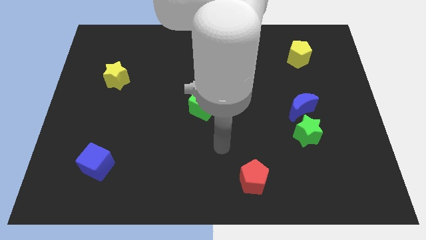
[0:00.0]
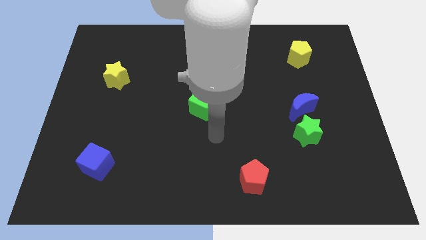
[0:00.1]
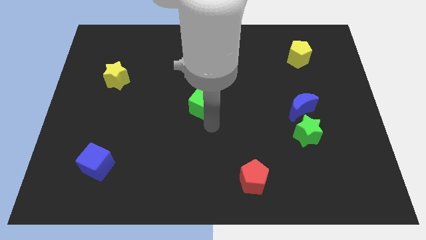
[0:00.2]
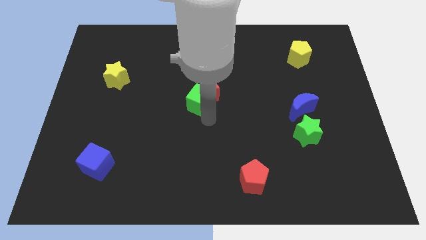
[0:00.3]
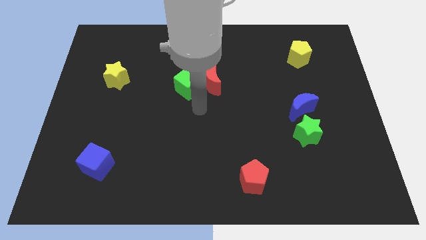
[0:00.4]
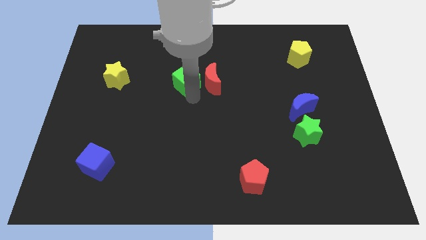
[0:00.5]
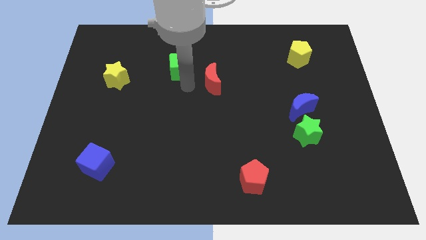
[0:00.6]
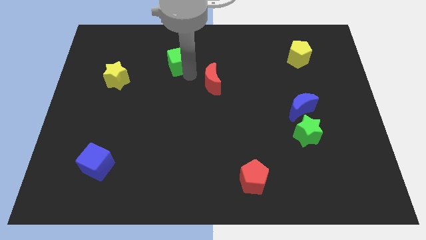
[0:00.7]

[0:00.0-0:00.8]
separate the red moon from the green cube

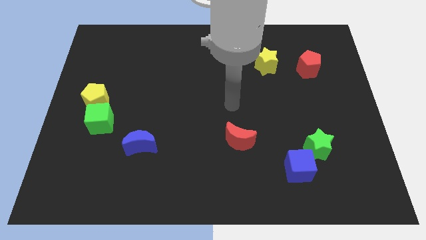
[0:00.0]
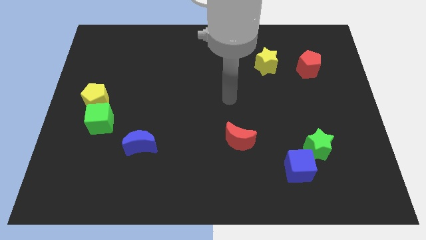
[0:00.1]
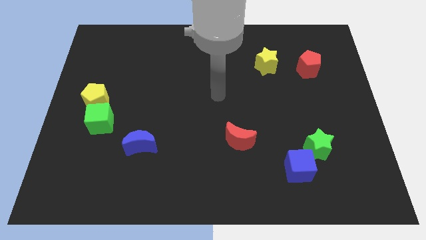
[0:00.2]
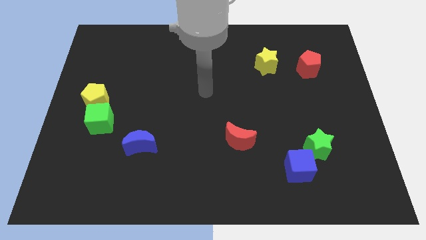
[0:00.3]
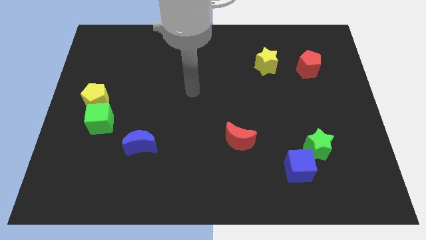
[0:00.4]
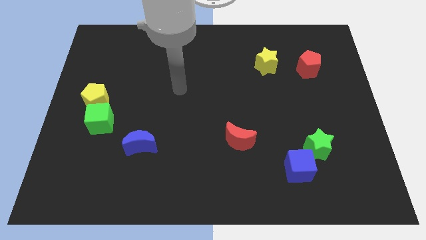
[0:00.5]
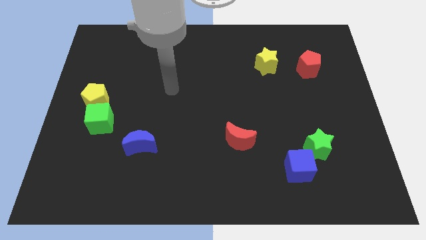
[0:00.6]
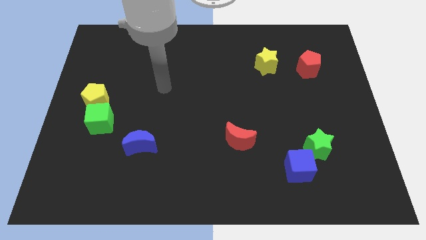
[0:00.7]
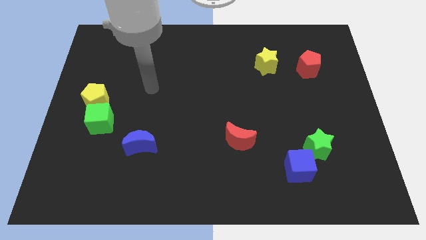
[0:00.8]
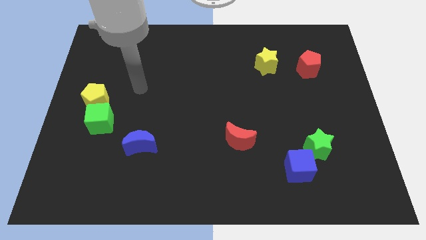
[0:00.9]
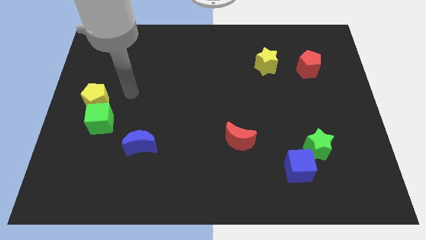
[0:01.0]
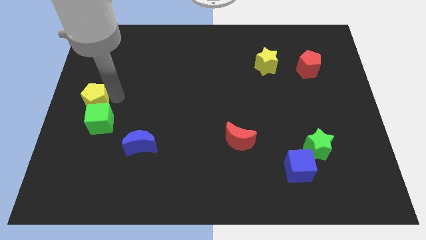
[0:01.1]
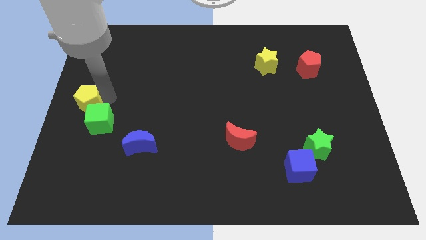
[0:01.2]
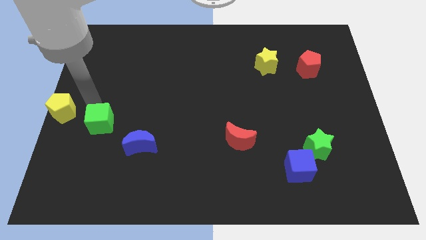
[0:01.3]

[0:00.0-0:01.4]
move the green cube away from the yellow pentagon

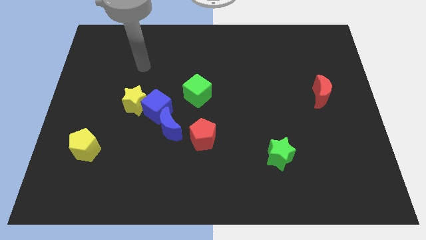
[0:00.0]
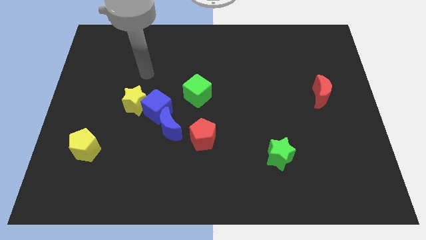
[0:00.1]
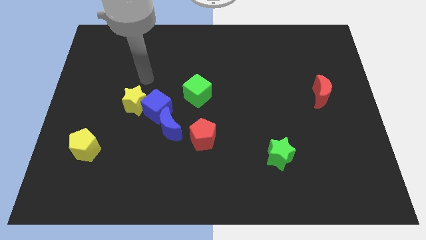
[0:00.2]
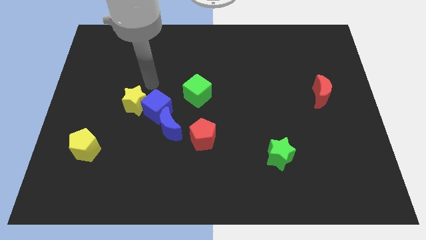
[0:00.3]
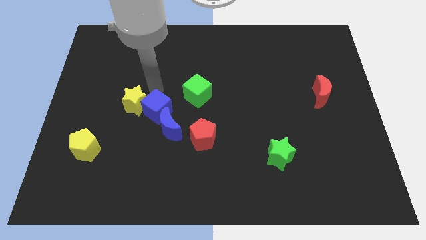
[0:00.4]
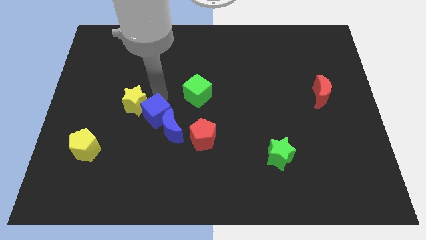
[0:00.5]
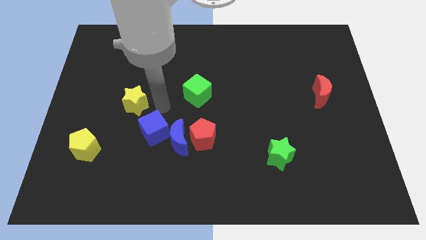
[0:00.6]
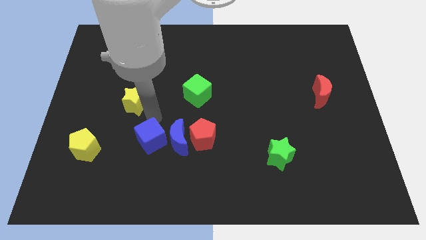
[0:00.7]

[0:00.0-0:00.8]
move the yellow star away from the blue cube

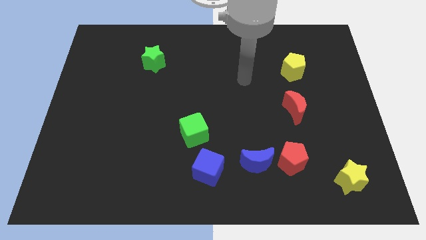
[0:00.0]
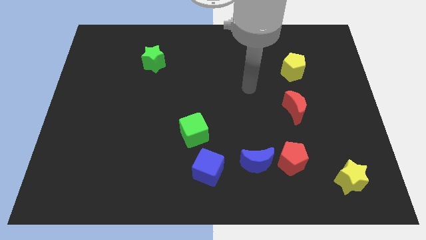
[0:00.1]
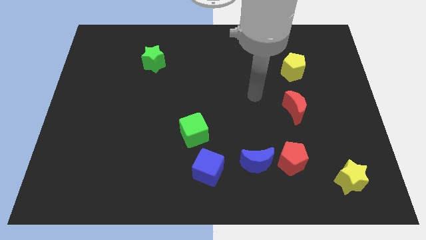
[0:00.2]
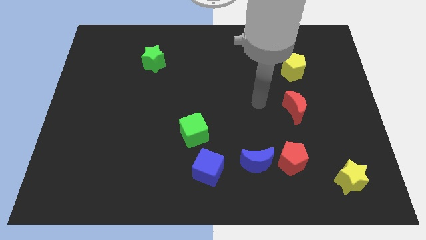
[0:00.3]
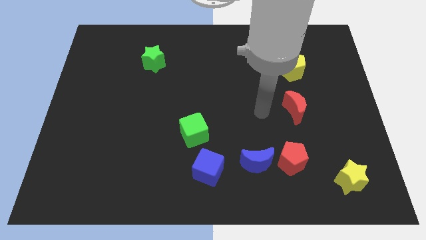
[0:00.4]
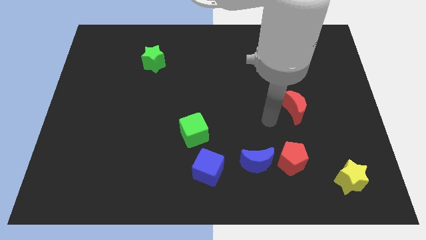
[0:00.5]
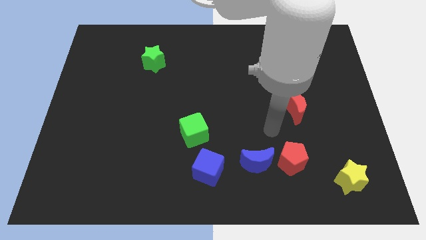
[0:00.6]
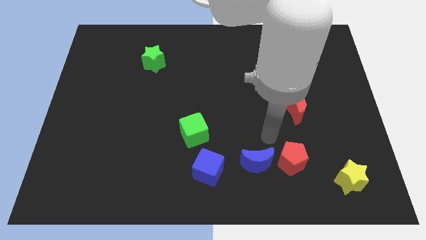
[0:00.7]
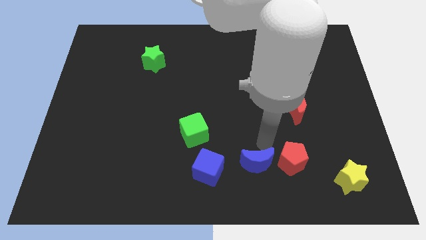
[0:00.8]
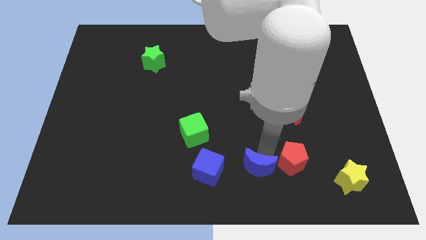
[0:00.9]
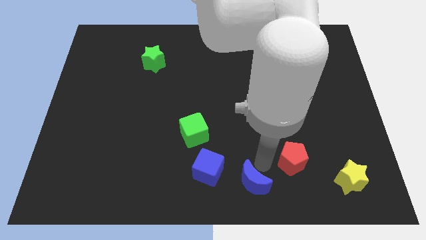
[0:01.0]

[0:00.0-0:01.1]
pull the red pentagon apart from the blue moon

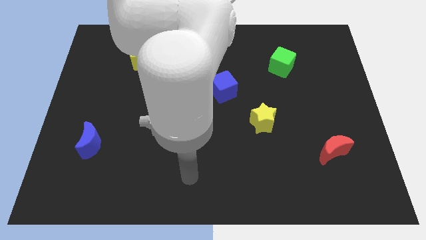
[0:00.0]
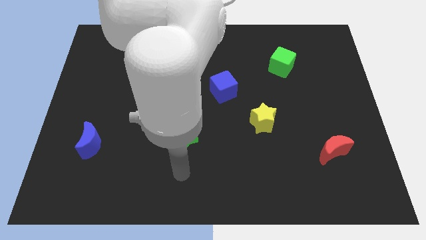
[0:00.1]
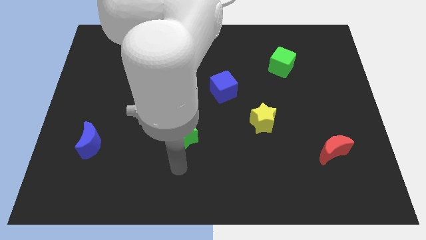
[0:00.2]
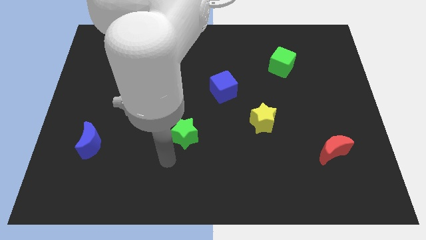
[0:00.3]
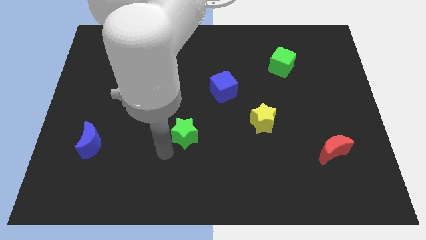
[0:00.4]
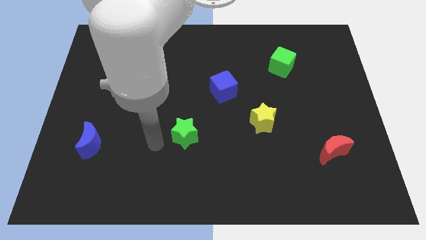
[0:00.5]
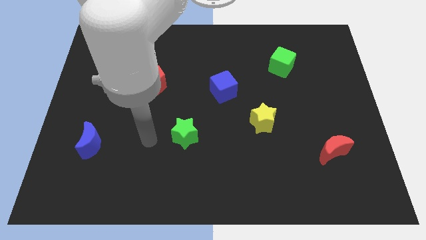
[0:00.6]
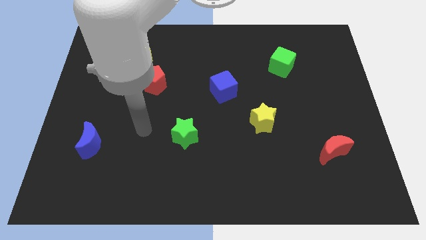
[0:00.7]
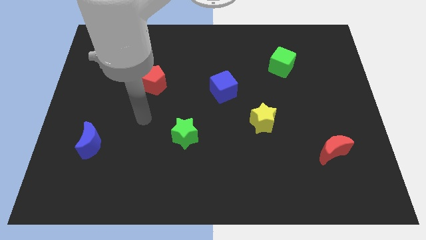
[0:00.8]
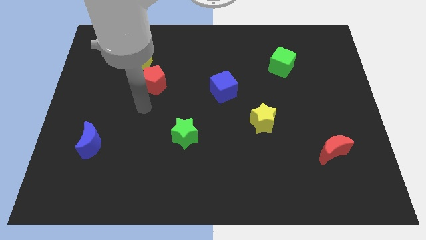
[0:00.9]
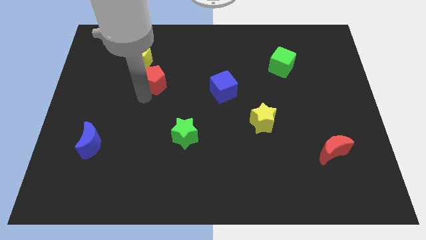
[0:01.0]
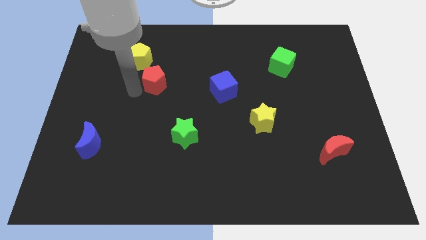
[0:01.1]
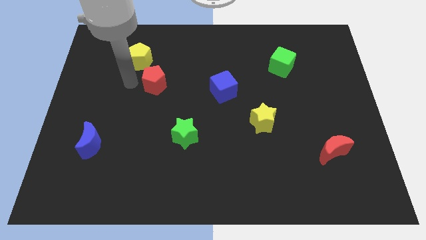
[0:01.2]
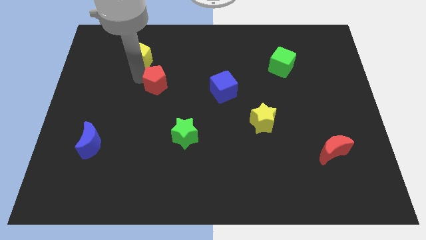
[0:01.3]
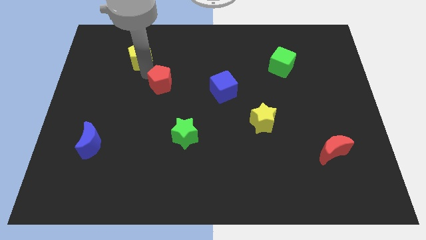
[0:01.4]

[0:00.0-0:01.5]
pull the red pentagon apart from the yellow pentagon

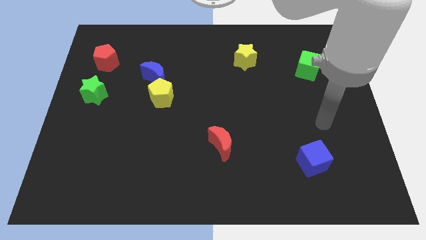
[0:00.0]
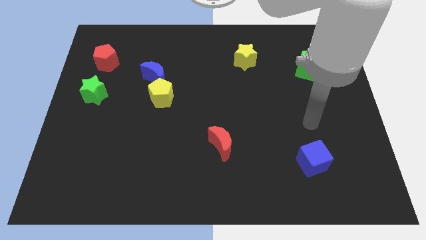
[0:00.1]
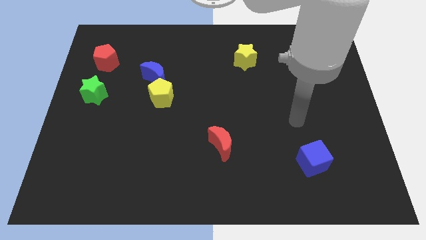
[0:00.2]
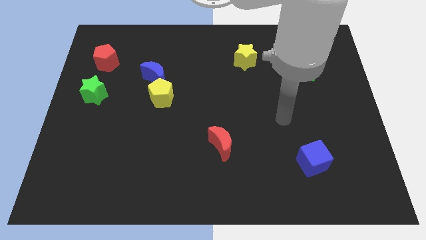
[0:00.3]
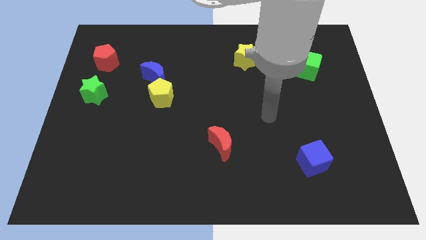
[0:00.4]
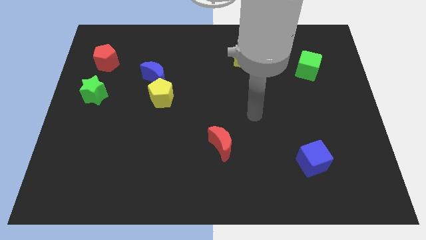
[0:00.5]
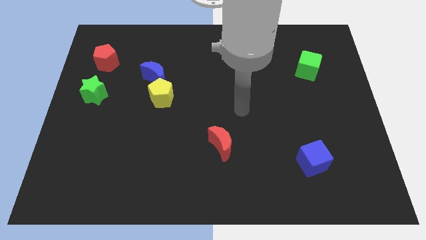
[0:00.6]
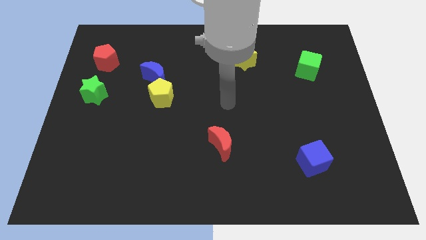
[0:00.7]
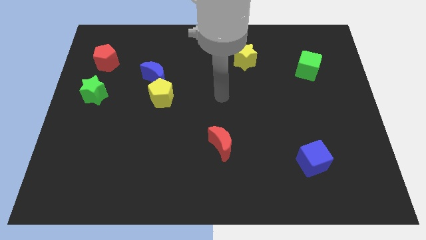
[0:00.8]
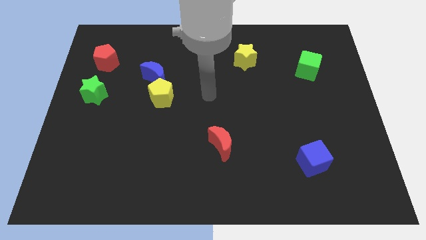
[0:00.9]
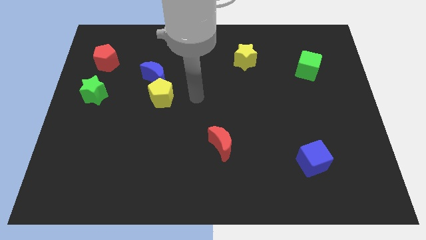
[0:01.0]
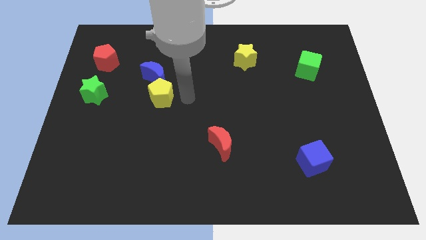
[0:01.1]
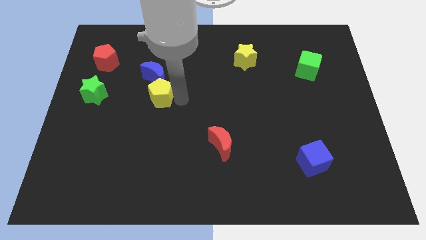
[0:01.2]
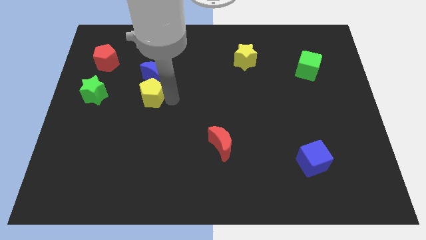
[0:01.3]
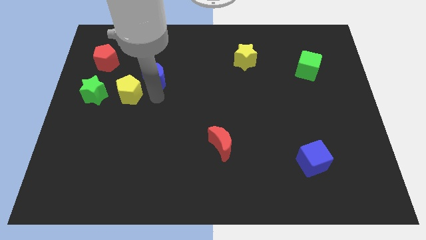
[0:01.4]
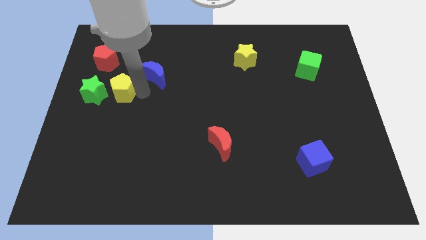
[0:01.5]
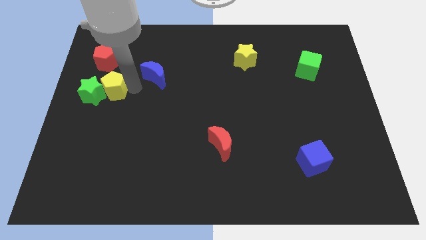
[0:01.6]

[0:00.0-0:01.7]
pull the blue moon apart from the yellow pentagon

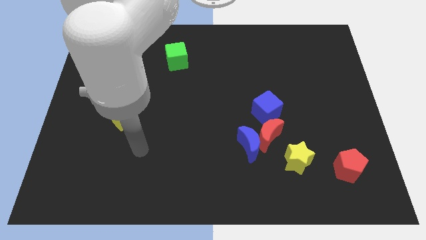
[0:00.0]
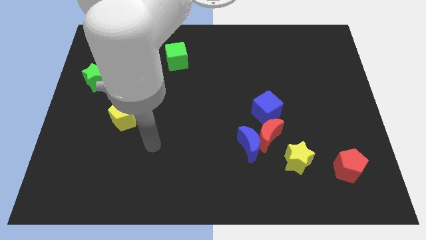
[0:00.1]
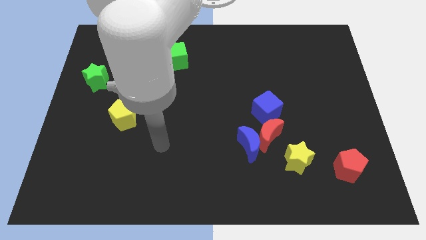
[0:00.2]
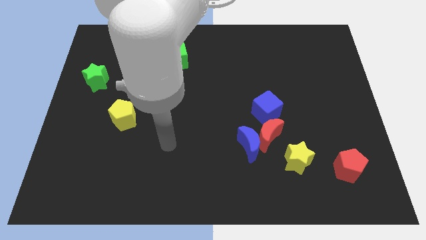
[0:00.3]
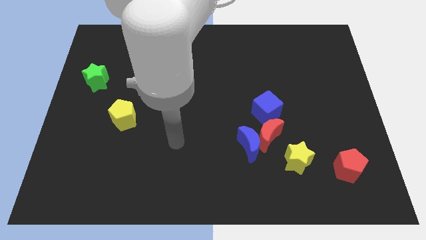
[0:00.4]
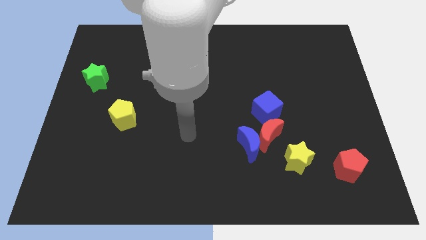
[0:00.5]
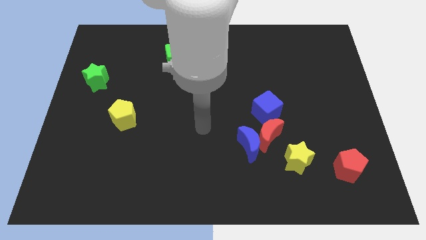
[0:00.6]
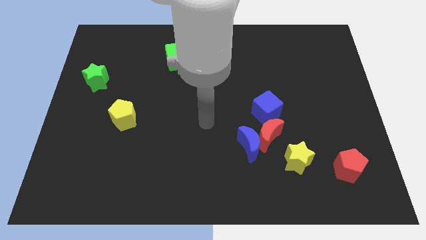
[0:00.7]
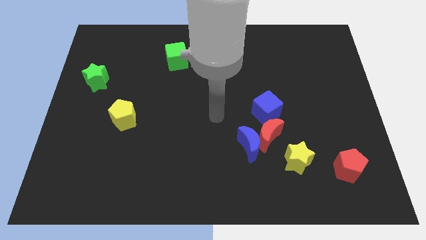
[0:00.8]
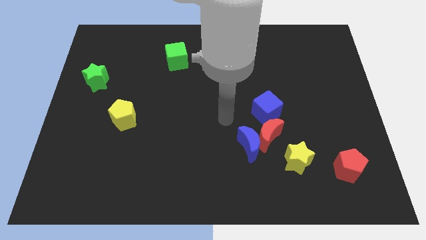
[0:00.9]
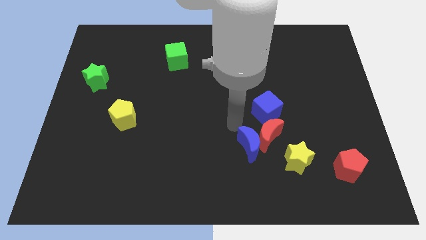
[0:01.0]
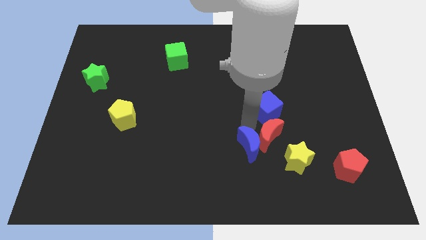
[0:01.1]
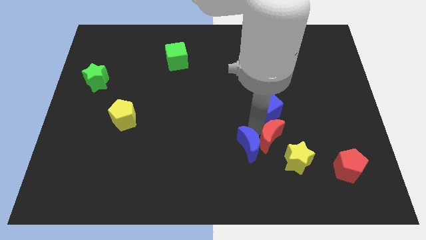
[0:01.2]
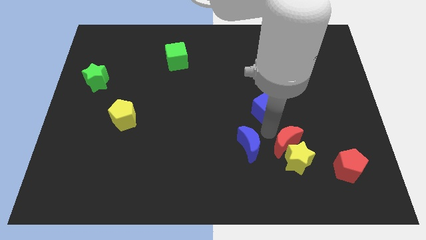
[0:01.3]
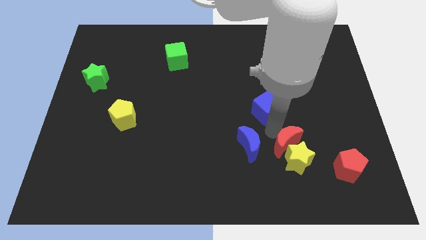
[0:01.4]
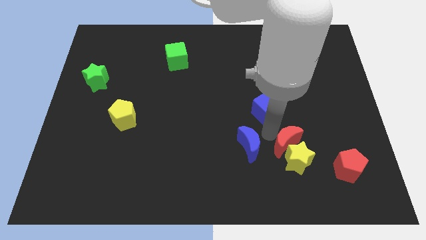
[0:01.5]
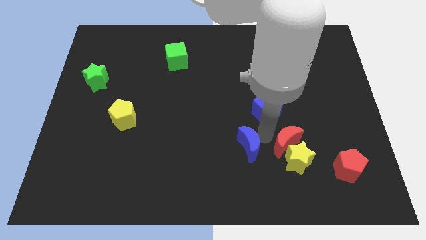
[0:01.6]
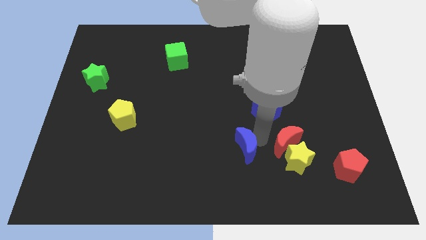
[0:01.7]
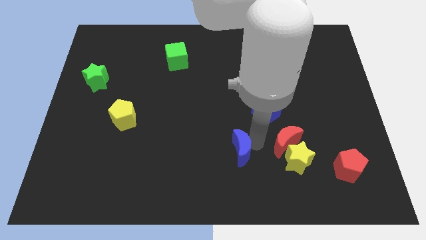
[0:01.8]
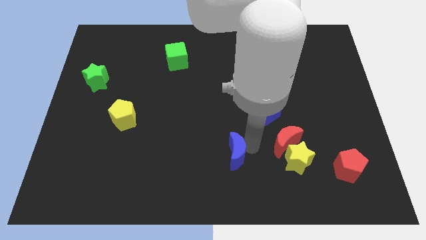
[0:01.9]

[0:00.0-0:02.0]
pull the blue moon apart from the red moon
